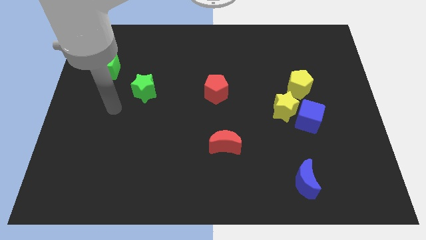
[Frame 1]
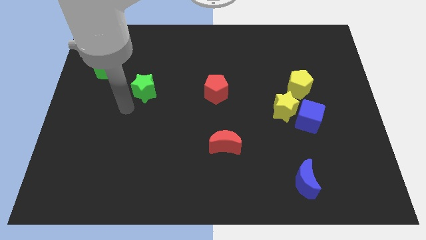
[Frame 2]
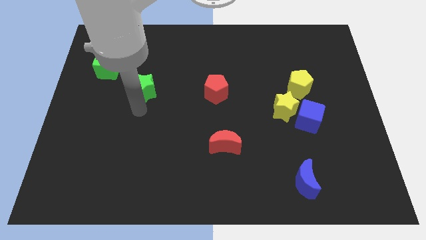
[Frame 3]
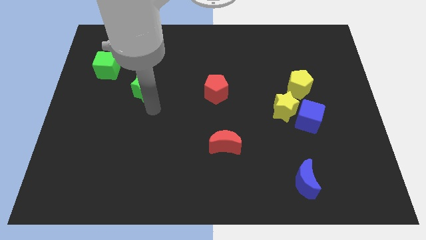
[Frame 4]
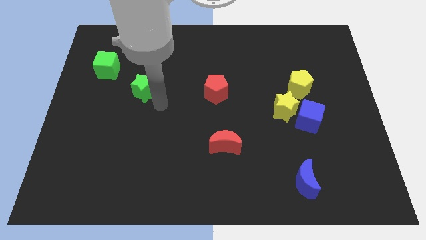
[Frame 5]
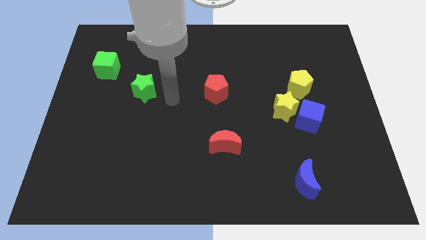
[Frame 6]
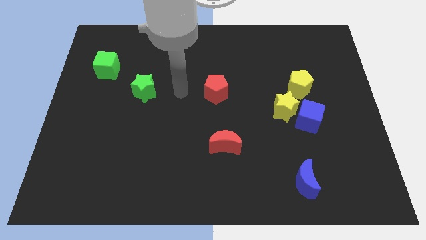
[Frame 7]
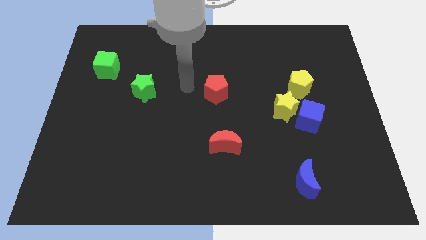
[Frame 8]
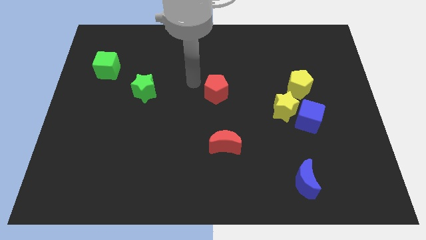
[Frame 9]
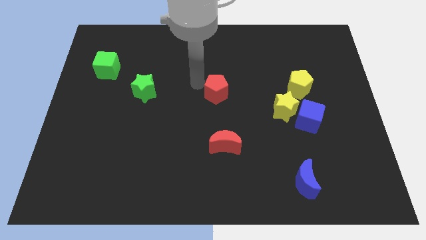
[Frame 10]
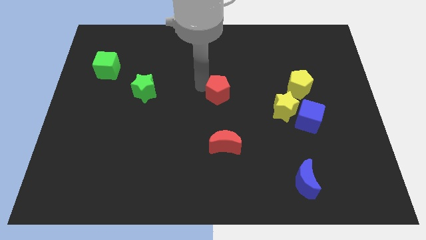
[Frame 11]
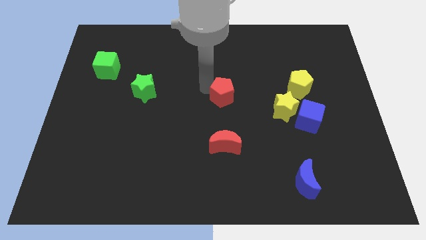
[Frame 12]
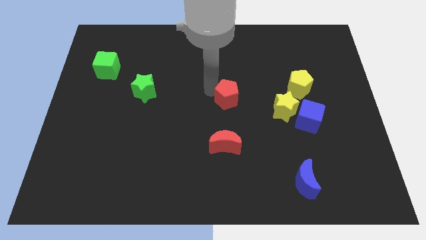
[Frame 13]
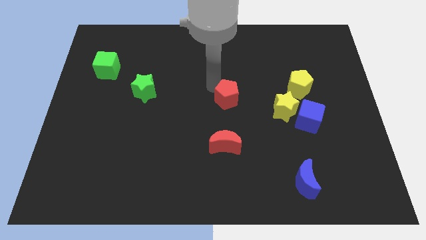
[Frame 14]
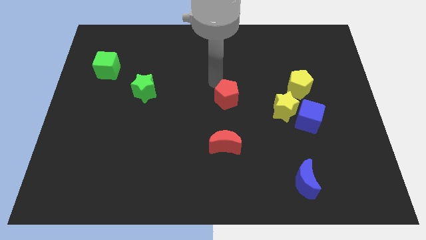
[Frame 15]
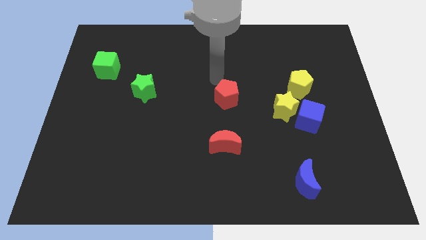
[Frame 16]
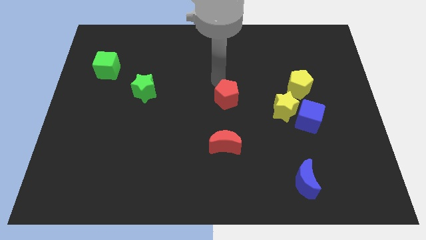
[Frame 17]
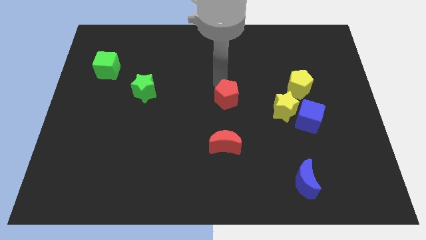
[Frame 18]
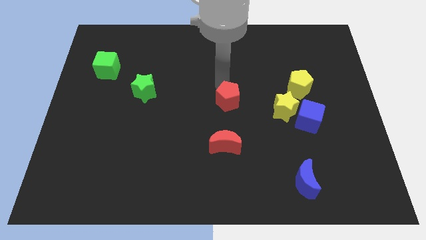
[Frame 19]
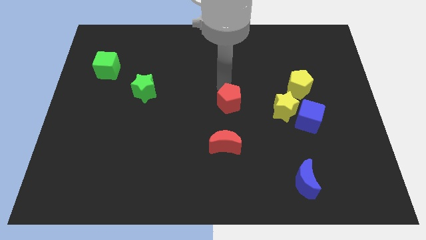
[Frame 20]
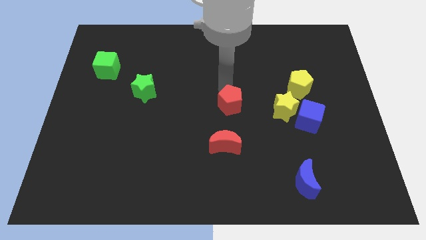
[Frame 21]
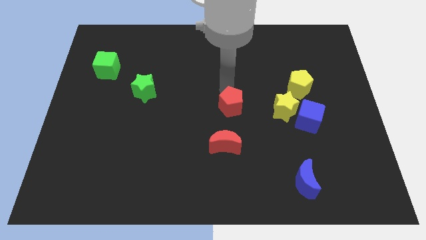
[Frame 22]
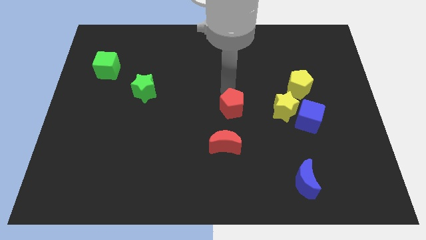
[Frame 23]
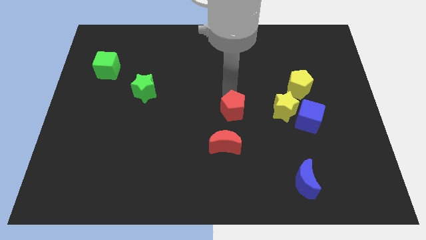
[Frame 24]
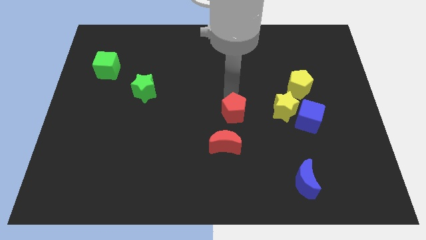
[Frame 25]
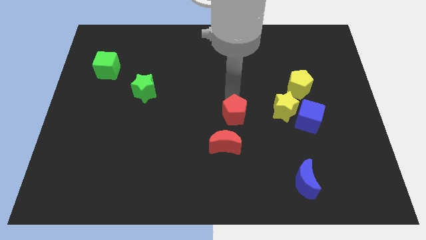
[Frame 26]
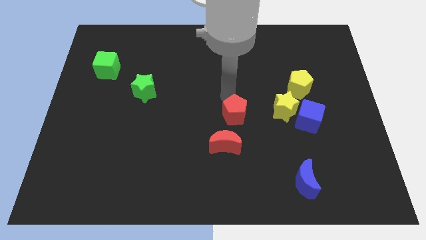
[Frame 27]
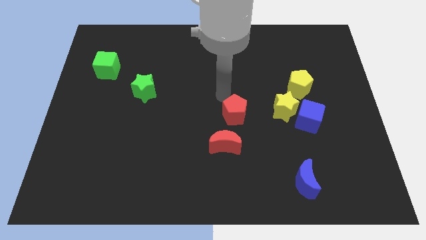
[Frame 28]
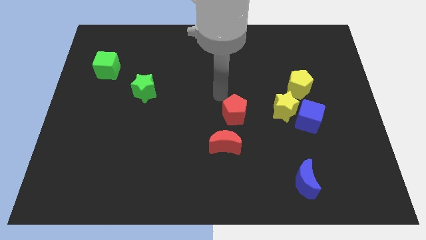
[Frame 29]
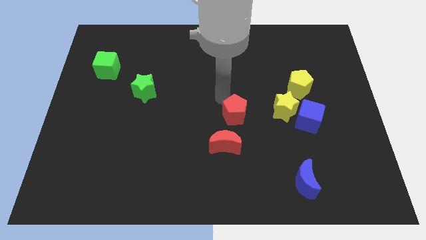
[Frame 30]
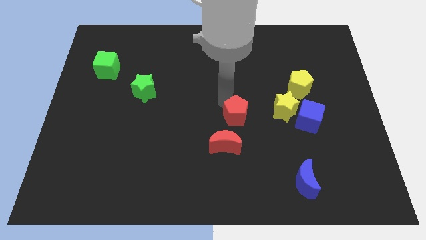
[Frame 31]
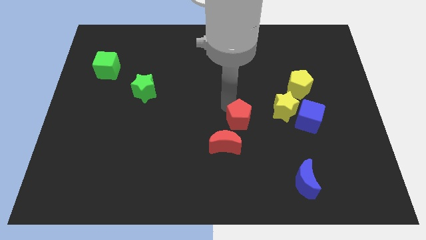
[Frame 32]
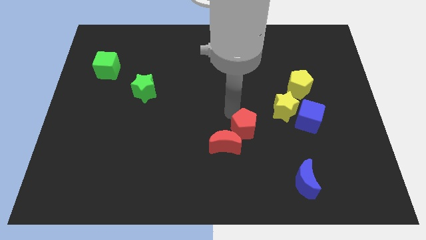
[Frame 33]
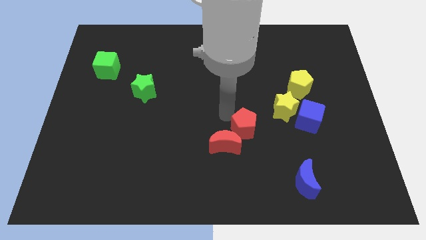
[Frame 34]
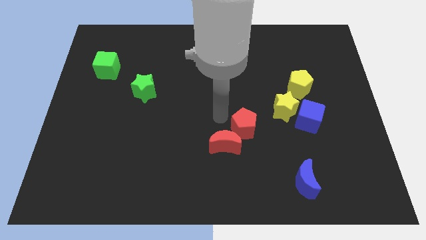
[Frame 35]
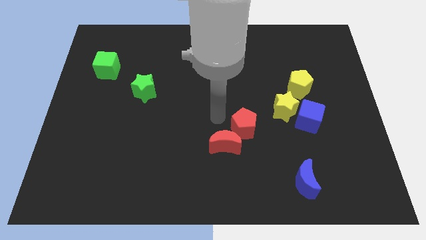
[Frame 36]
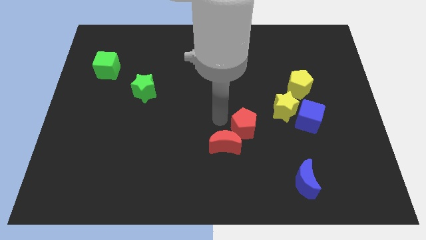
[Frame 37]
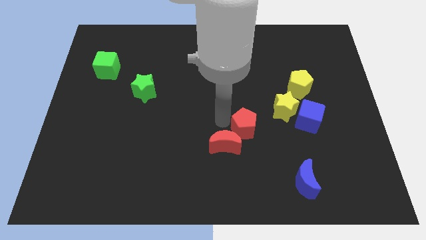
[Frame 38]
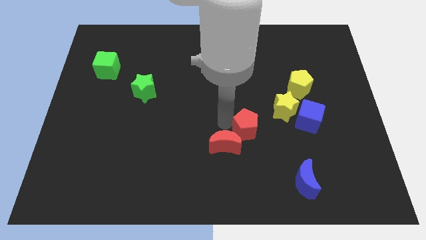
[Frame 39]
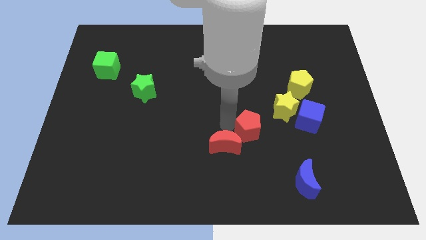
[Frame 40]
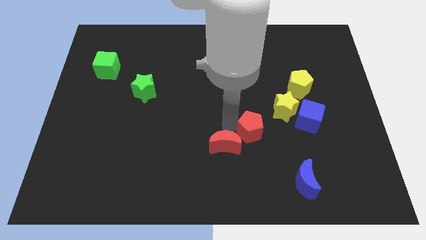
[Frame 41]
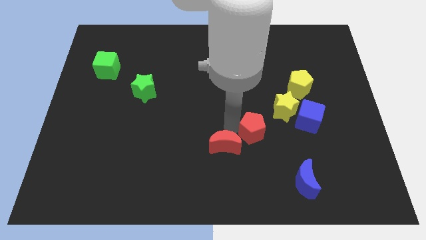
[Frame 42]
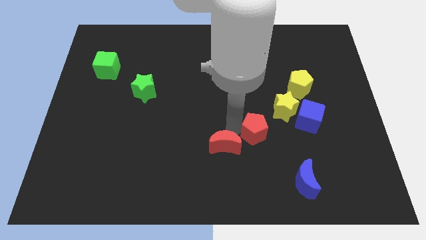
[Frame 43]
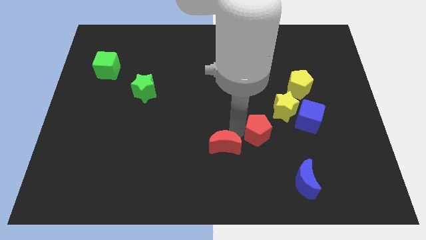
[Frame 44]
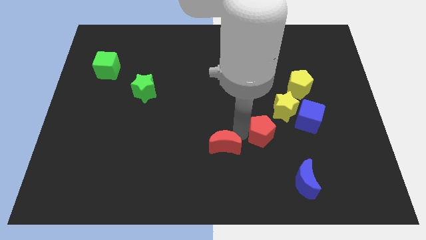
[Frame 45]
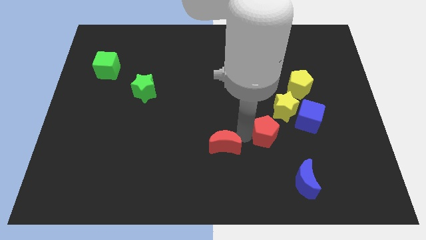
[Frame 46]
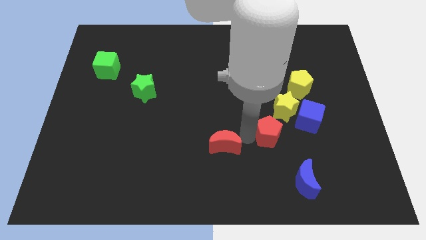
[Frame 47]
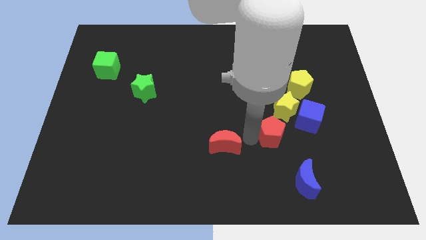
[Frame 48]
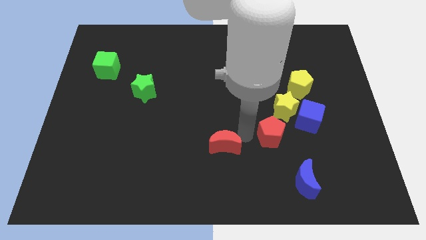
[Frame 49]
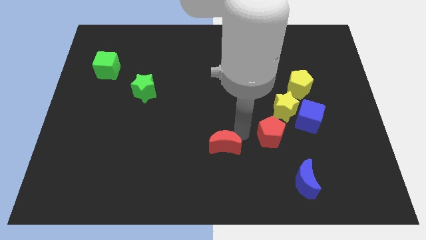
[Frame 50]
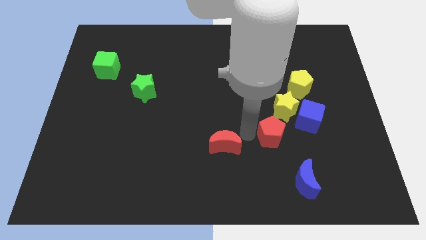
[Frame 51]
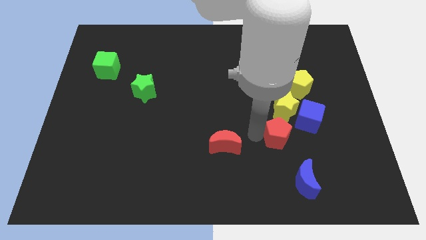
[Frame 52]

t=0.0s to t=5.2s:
slide the red pentagon above the blue moon

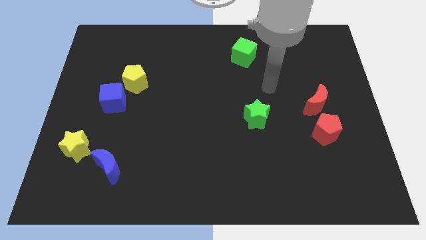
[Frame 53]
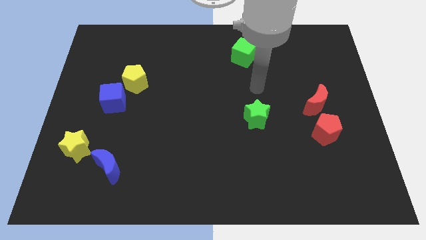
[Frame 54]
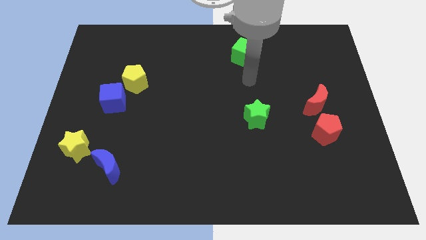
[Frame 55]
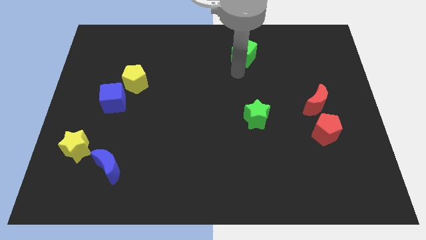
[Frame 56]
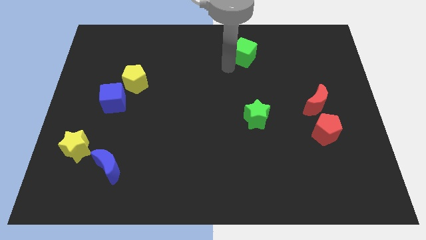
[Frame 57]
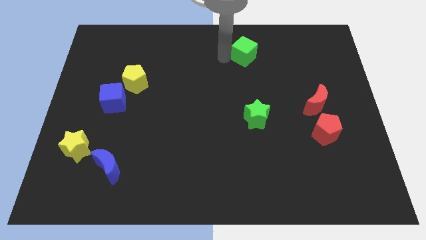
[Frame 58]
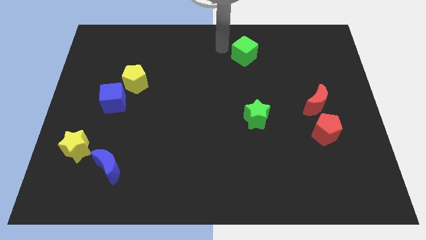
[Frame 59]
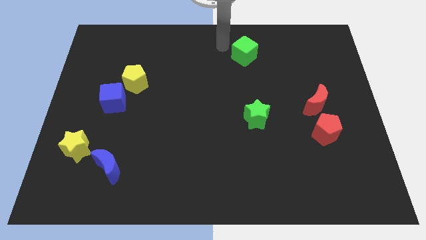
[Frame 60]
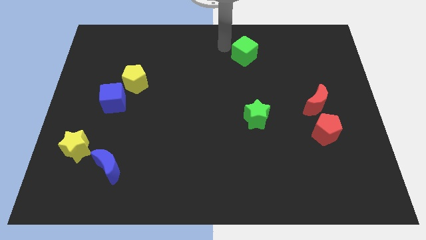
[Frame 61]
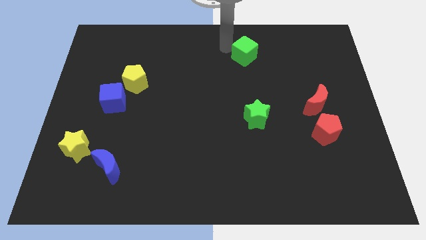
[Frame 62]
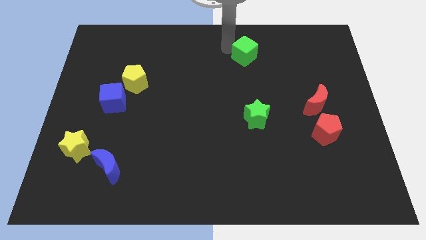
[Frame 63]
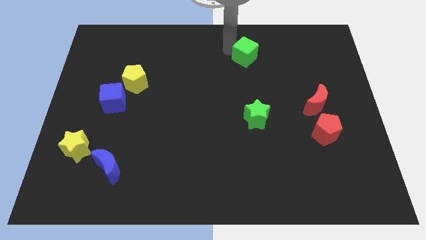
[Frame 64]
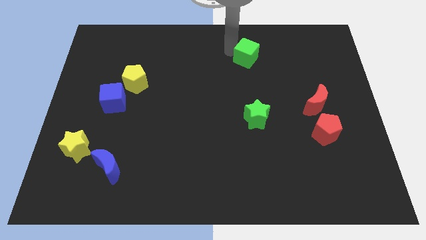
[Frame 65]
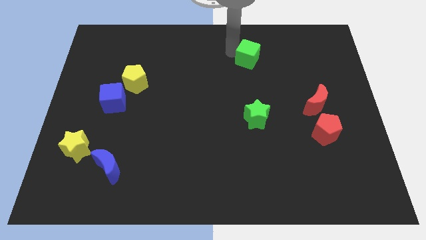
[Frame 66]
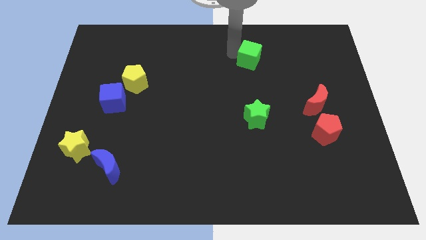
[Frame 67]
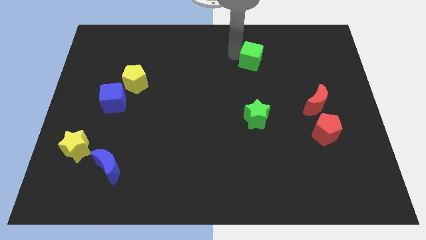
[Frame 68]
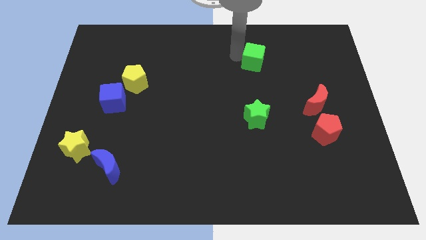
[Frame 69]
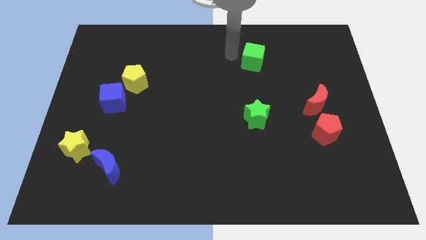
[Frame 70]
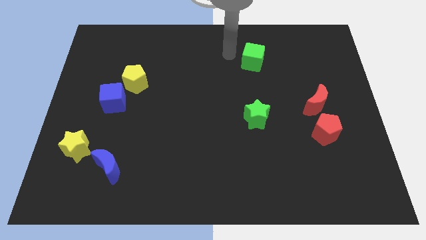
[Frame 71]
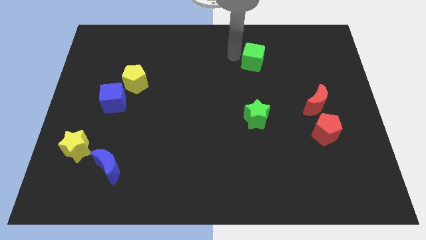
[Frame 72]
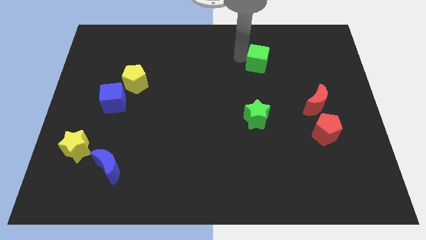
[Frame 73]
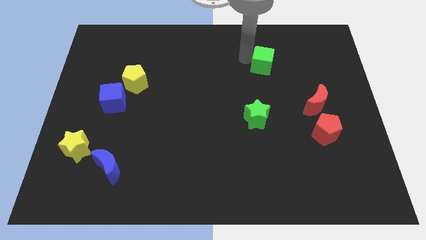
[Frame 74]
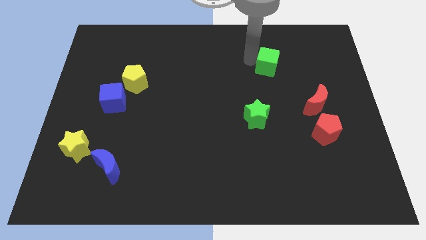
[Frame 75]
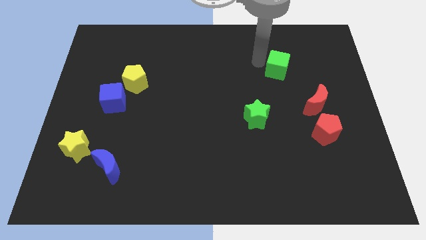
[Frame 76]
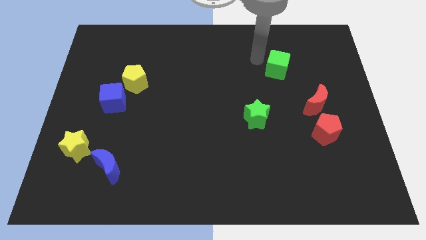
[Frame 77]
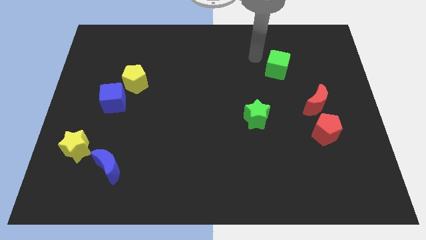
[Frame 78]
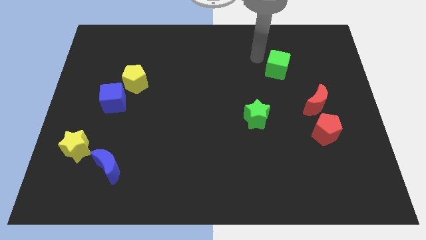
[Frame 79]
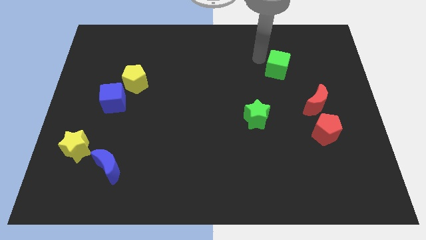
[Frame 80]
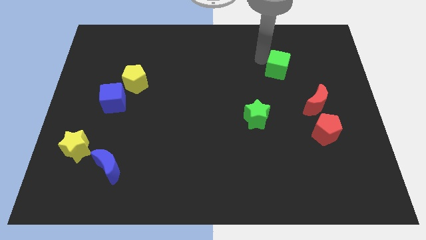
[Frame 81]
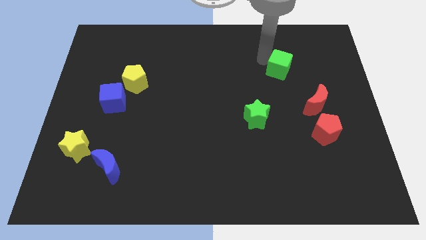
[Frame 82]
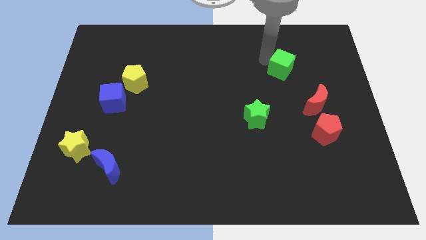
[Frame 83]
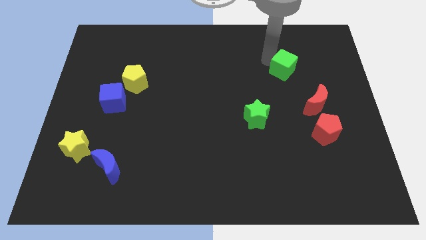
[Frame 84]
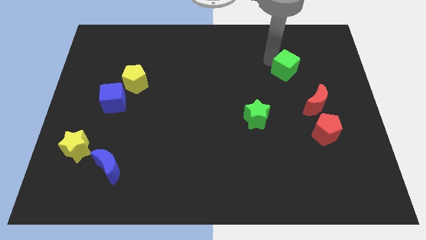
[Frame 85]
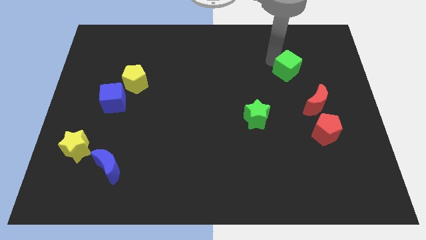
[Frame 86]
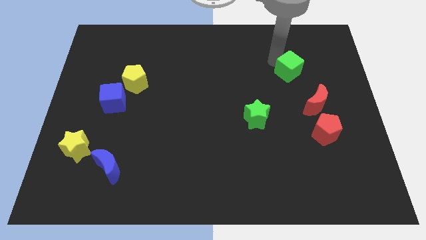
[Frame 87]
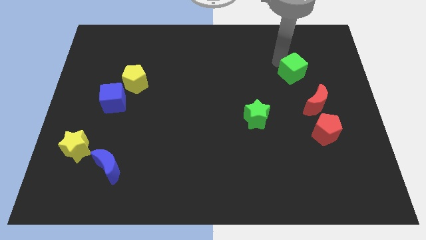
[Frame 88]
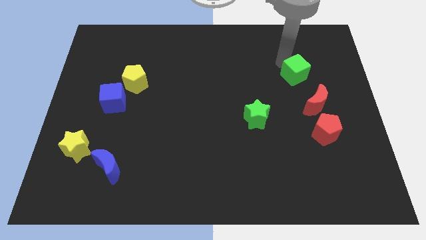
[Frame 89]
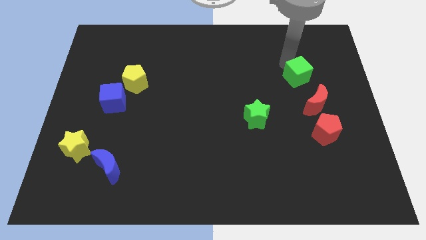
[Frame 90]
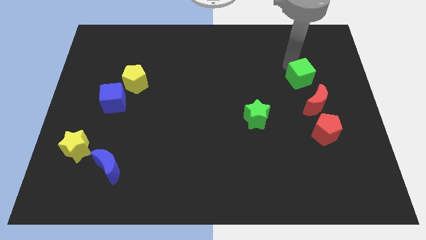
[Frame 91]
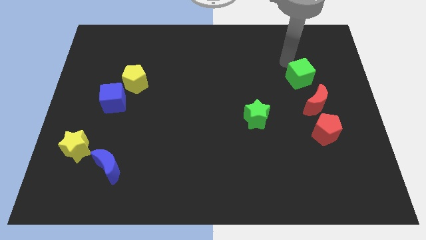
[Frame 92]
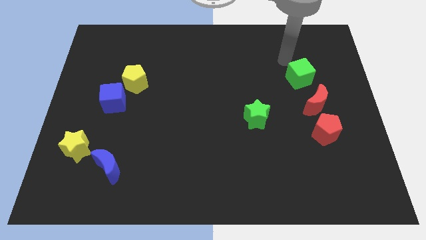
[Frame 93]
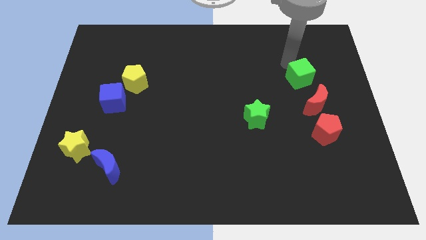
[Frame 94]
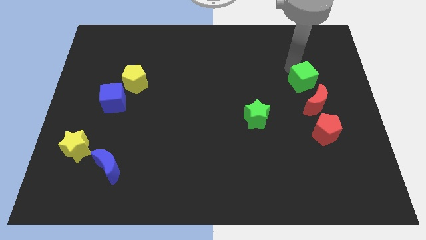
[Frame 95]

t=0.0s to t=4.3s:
slide the green cube above the red pentagon
